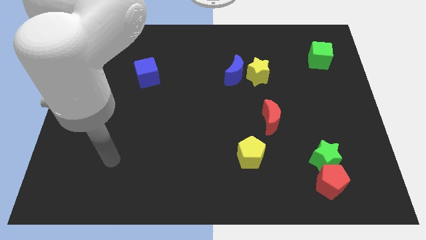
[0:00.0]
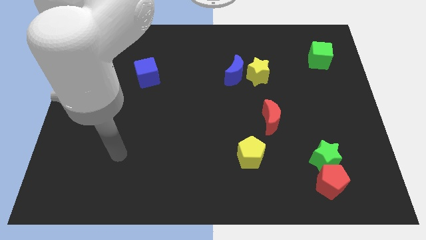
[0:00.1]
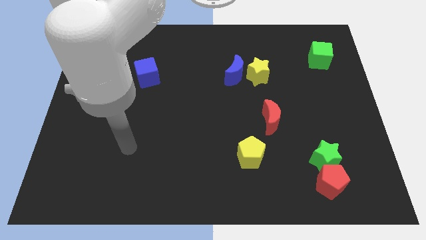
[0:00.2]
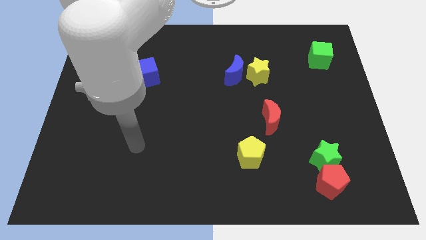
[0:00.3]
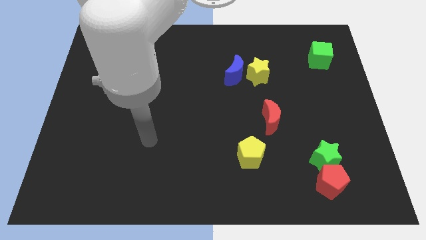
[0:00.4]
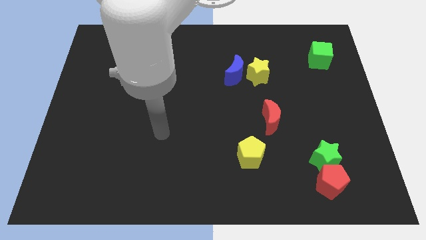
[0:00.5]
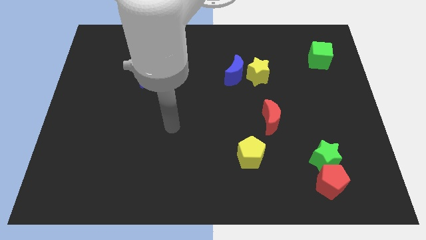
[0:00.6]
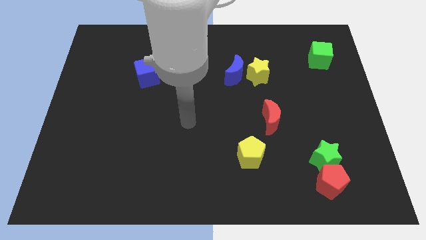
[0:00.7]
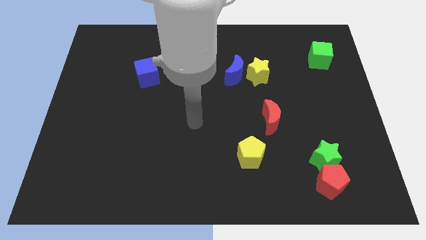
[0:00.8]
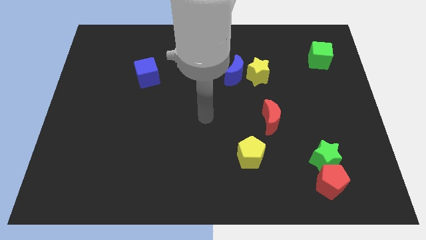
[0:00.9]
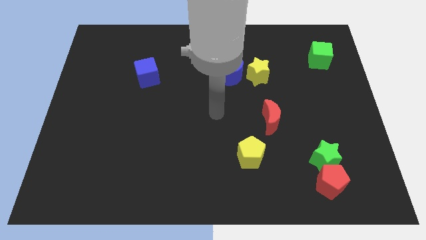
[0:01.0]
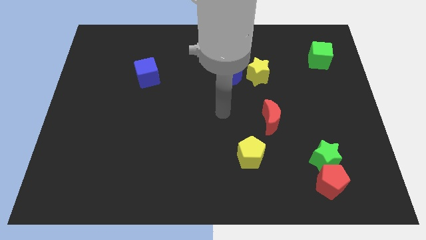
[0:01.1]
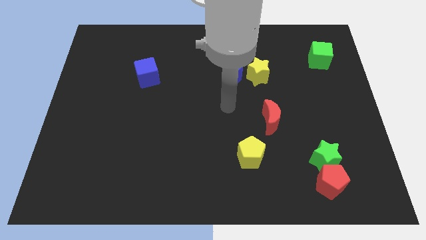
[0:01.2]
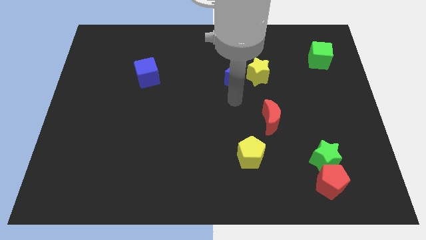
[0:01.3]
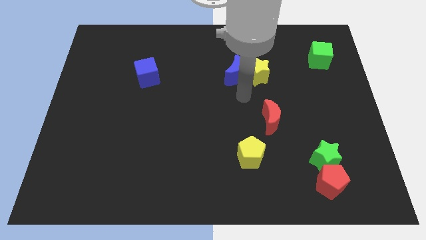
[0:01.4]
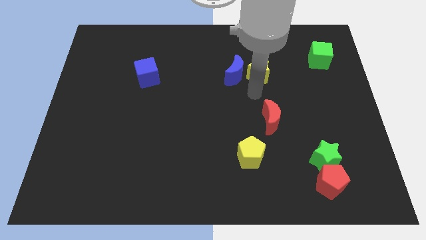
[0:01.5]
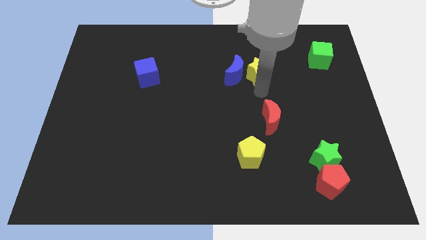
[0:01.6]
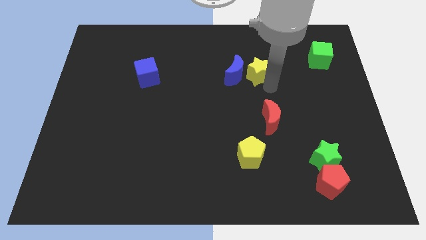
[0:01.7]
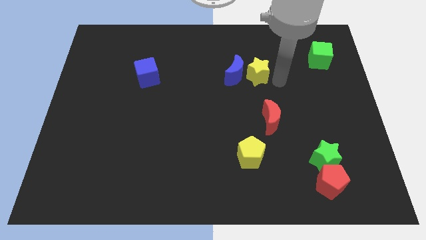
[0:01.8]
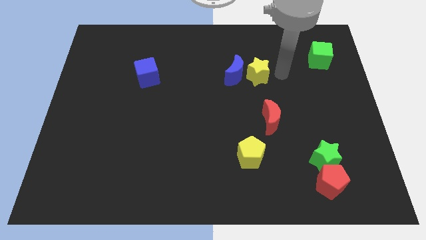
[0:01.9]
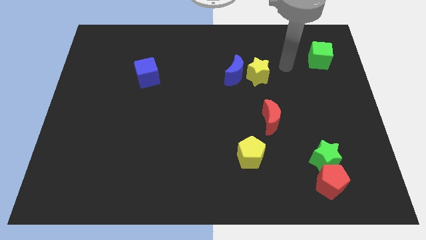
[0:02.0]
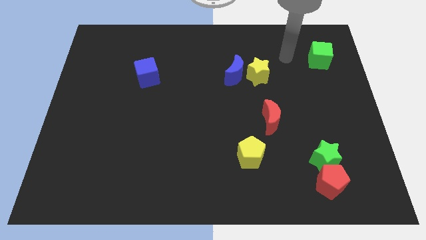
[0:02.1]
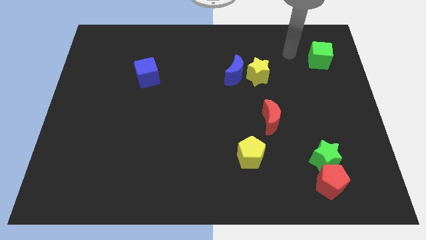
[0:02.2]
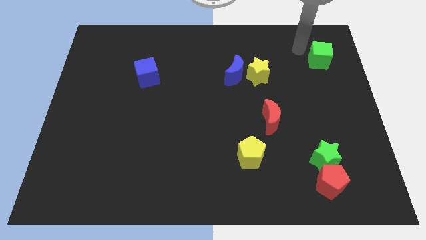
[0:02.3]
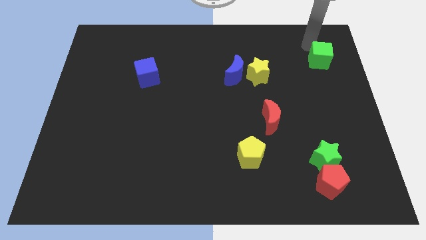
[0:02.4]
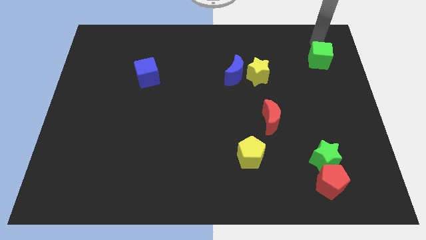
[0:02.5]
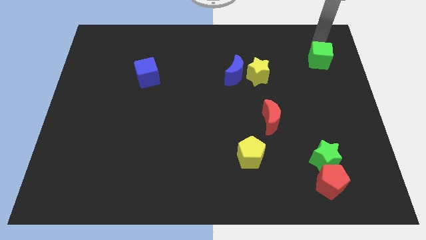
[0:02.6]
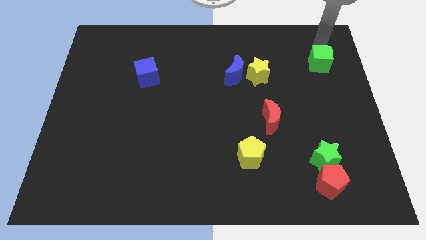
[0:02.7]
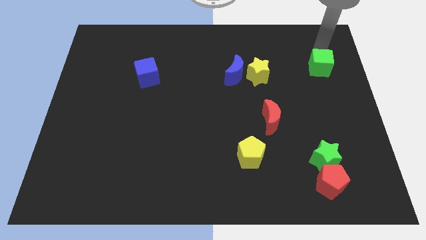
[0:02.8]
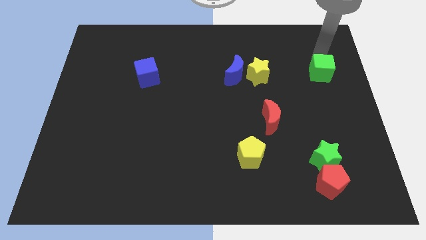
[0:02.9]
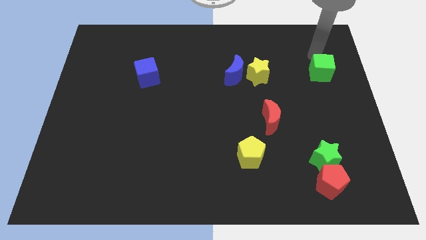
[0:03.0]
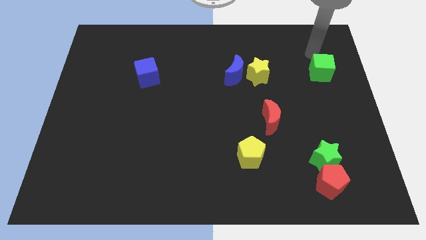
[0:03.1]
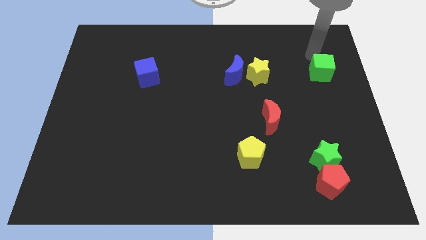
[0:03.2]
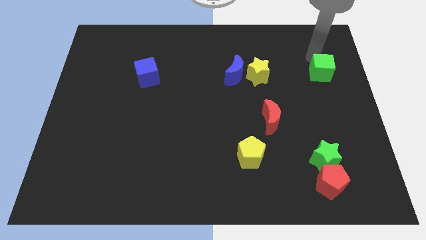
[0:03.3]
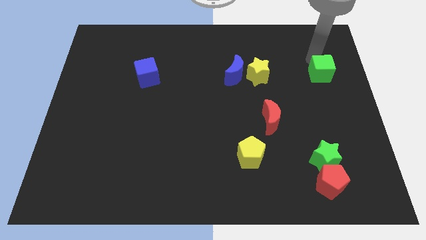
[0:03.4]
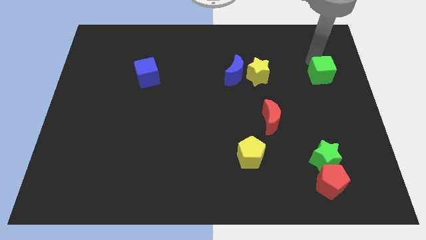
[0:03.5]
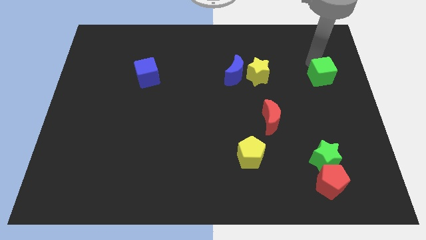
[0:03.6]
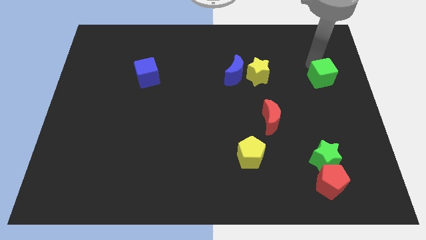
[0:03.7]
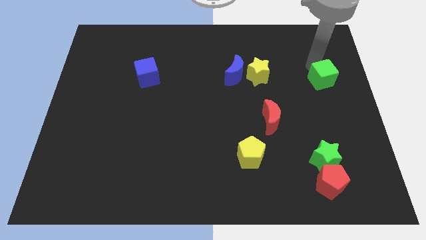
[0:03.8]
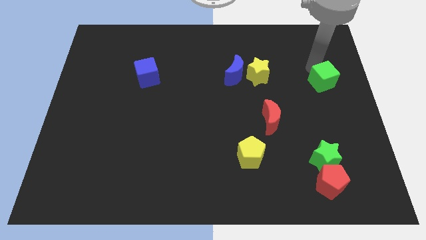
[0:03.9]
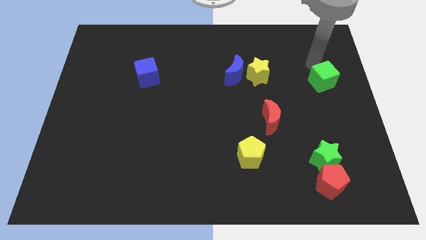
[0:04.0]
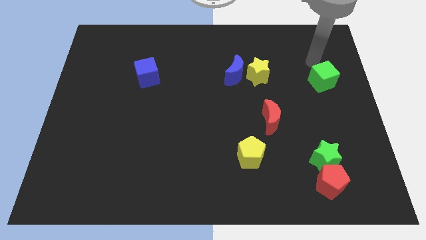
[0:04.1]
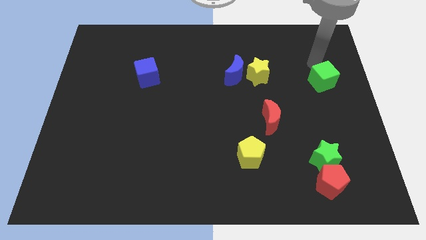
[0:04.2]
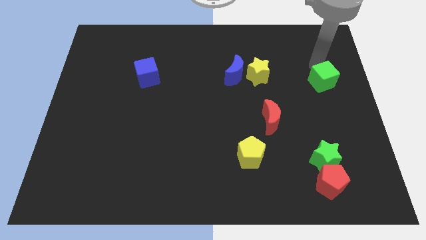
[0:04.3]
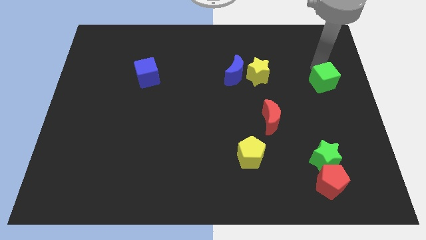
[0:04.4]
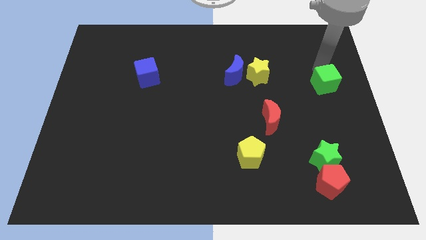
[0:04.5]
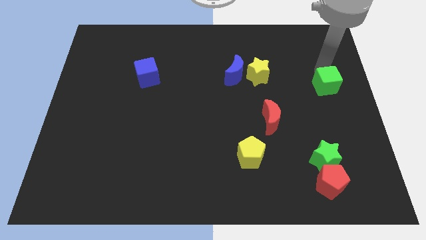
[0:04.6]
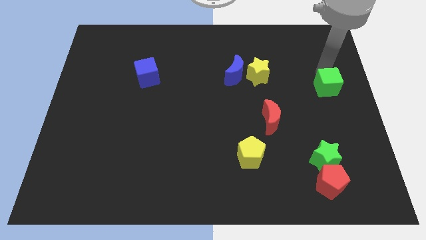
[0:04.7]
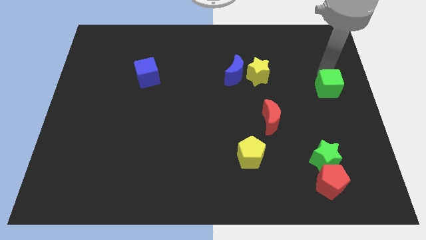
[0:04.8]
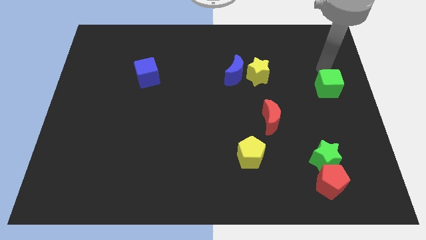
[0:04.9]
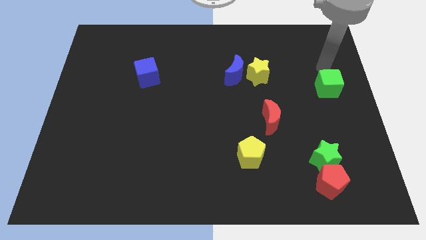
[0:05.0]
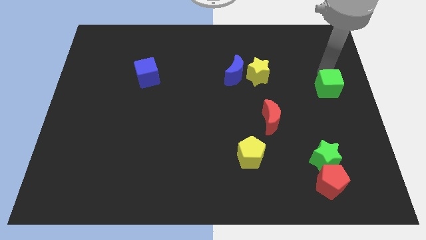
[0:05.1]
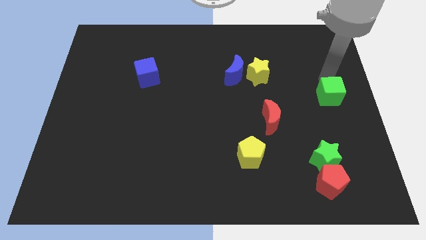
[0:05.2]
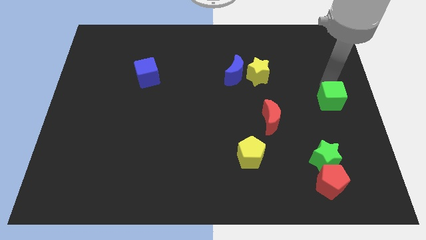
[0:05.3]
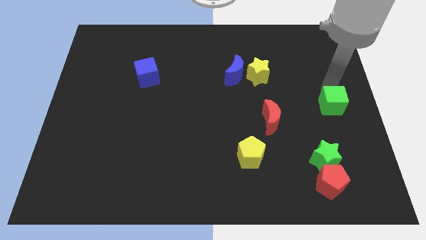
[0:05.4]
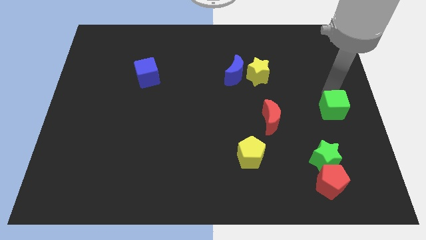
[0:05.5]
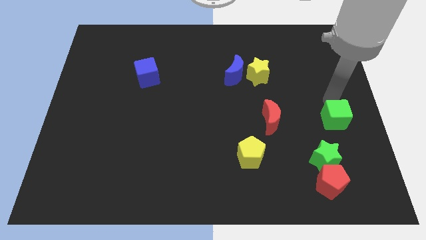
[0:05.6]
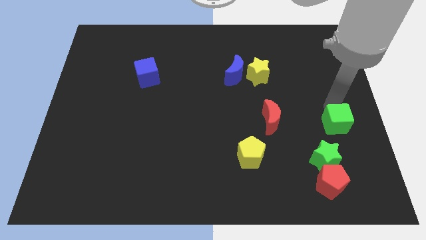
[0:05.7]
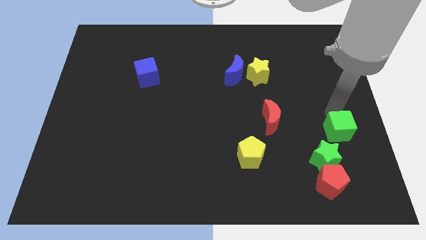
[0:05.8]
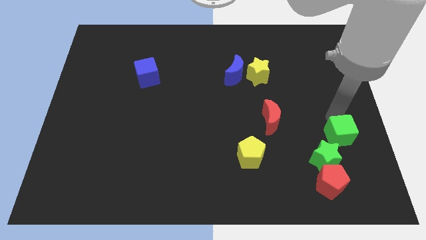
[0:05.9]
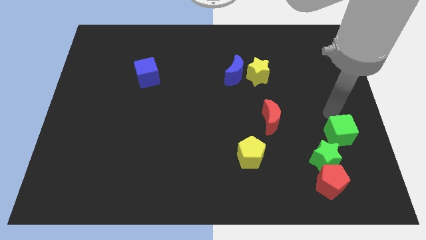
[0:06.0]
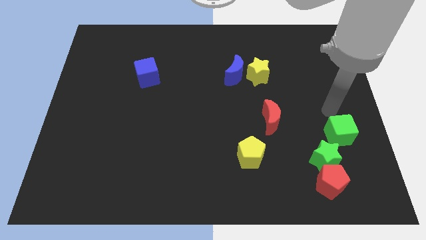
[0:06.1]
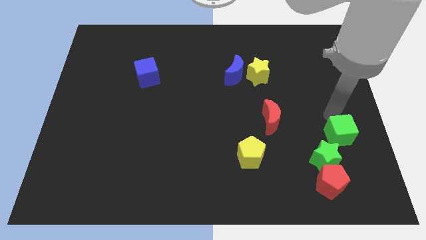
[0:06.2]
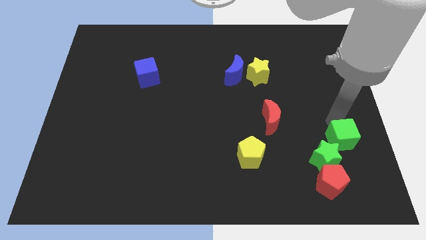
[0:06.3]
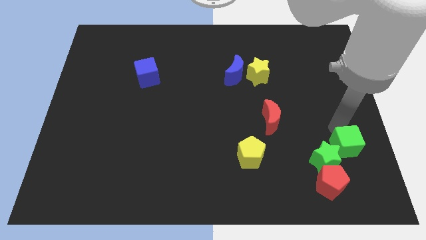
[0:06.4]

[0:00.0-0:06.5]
slide the green cube to the top right of the red pentagon
